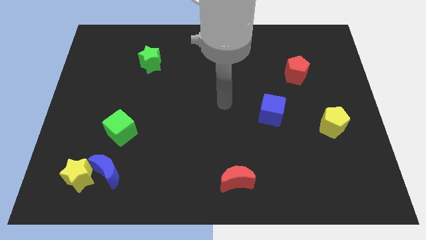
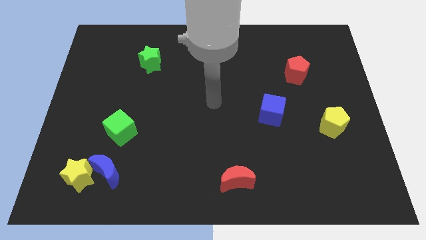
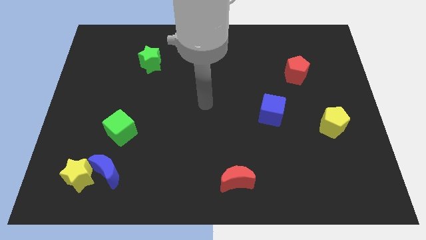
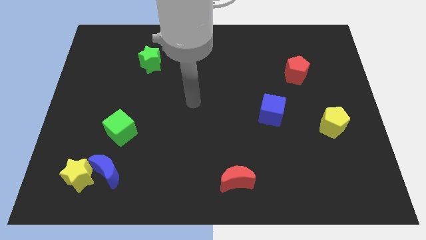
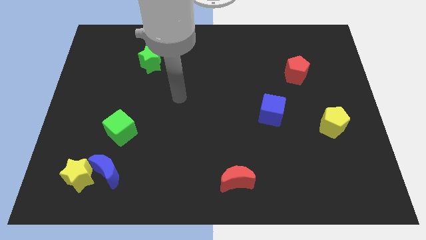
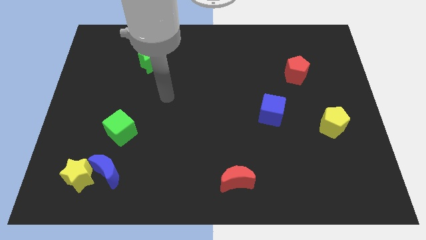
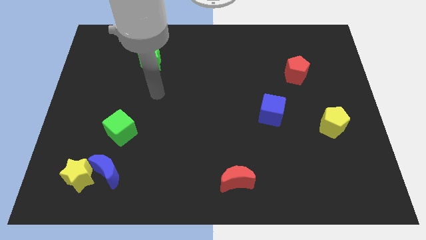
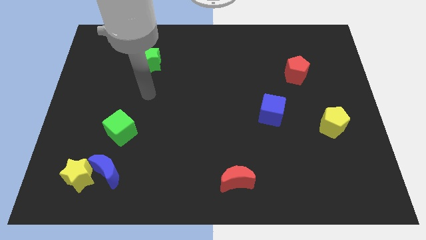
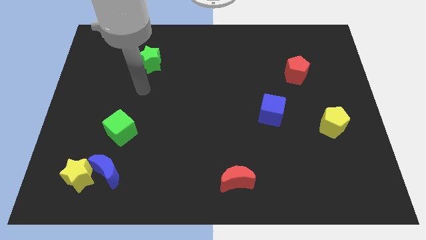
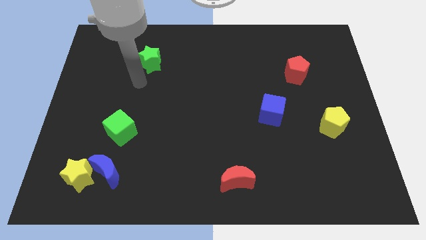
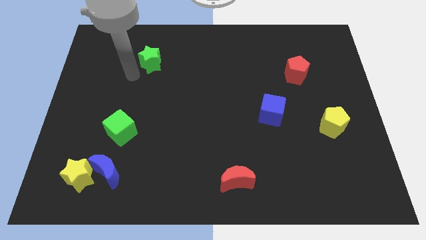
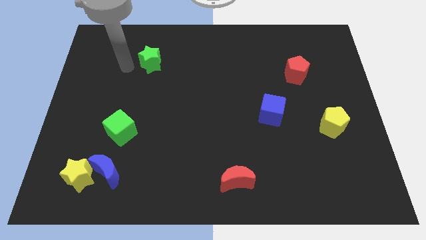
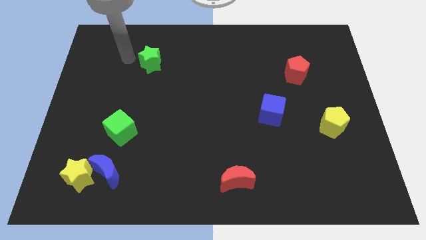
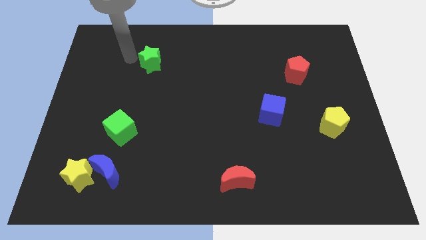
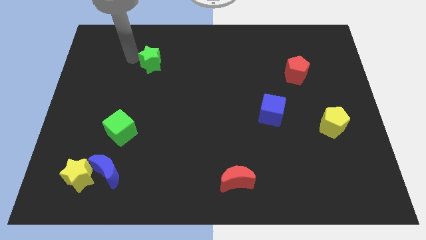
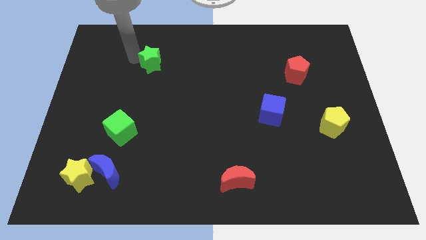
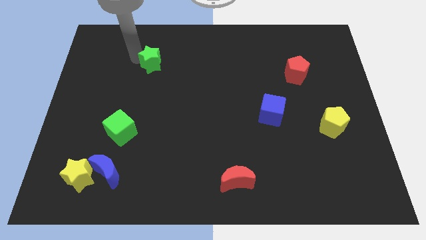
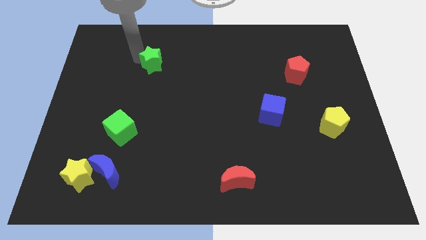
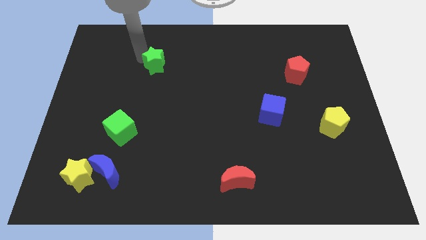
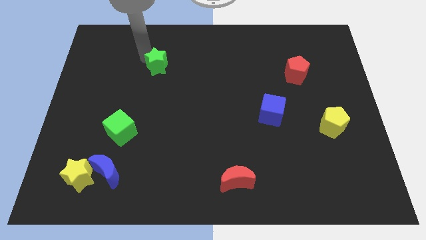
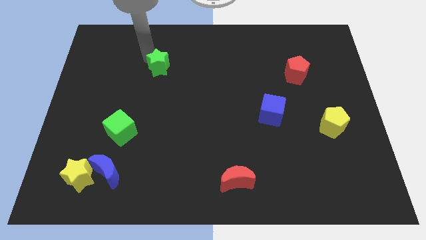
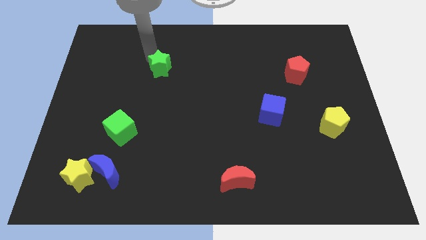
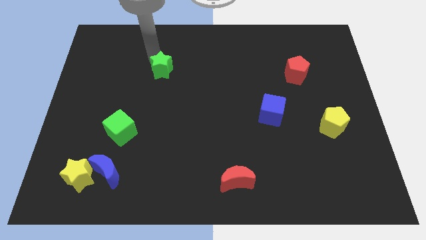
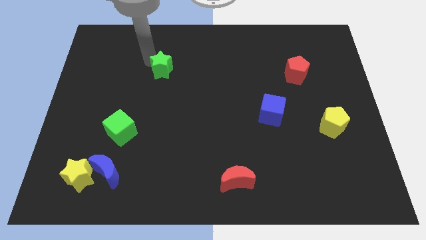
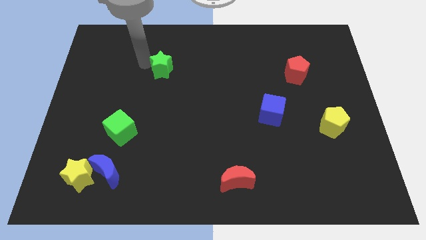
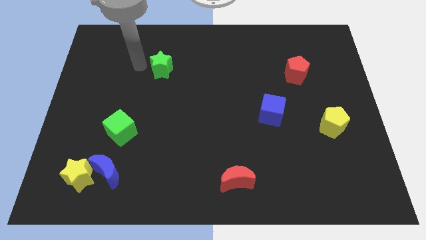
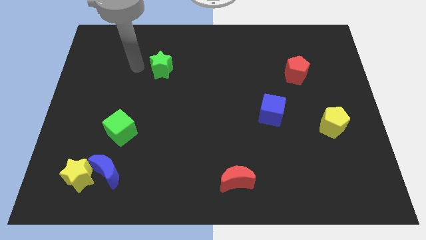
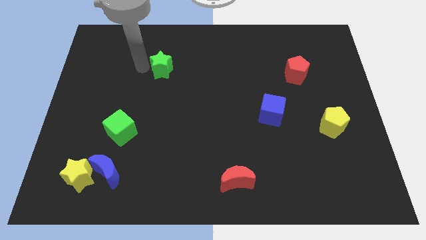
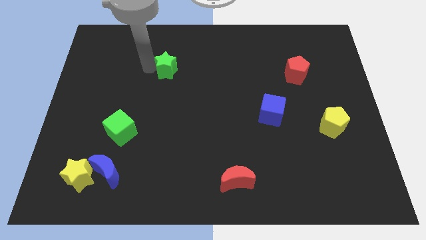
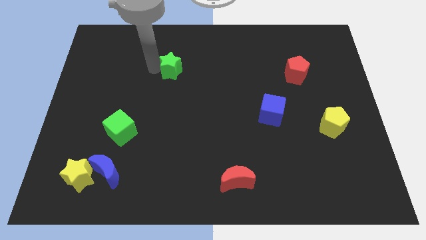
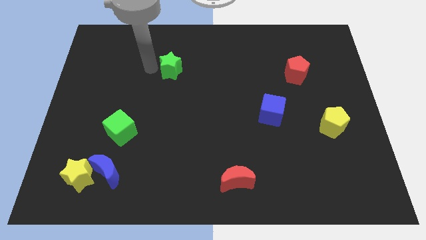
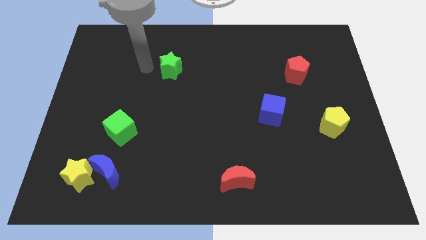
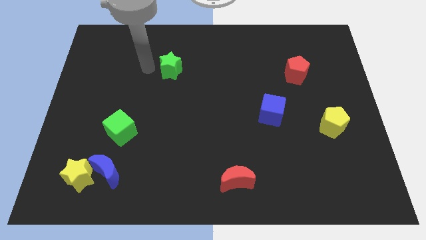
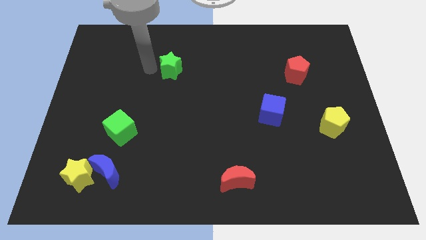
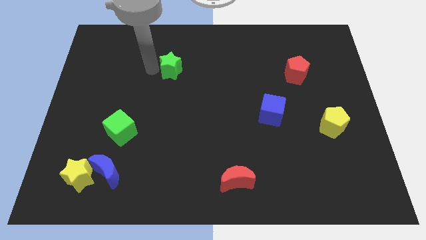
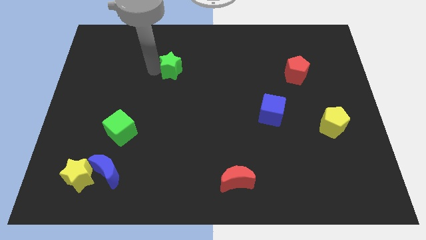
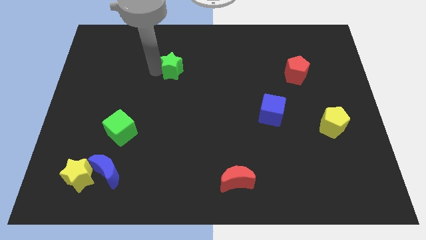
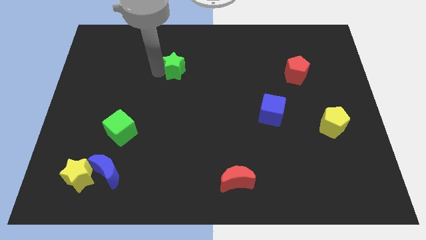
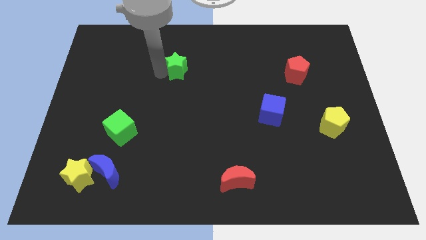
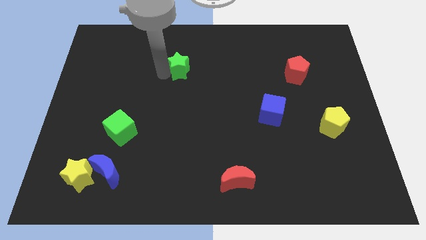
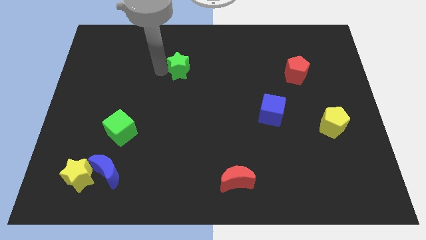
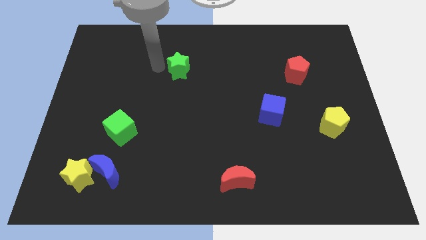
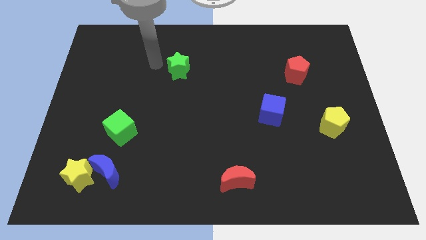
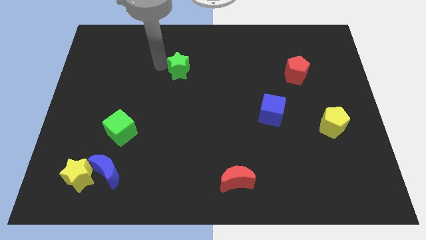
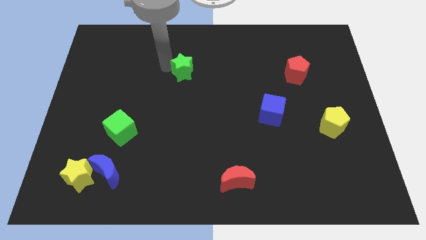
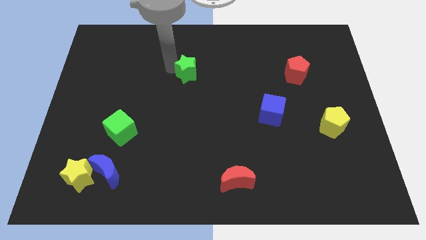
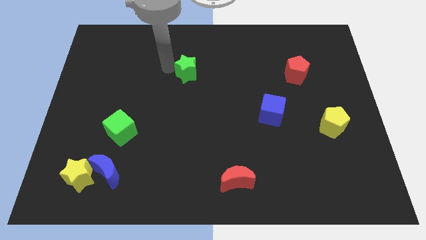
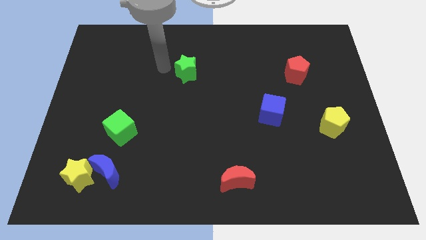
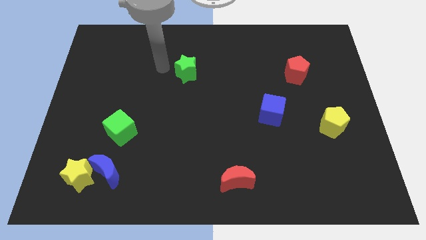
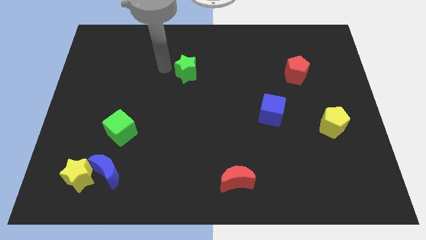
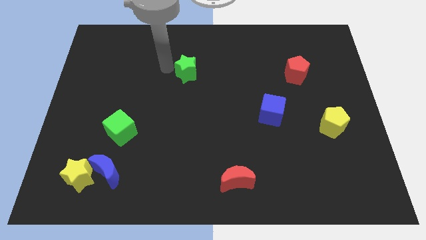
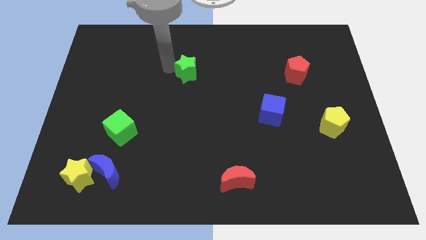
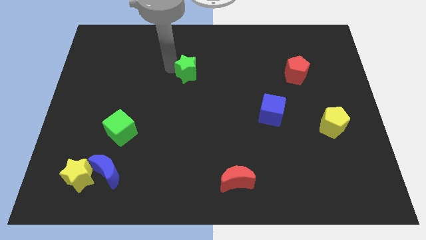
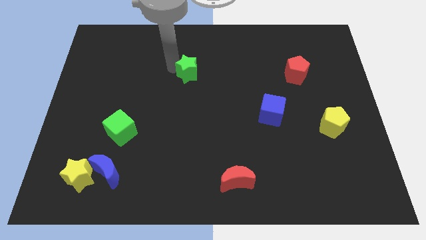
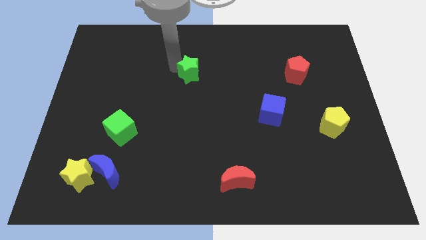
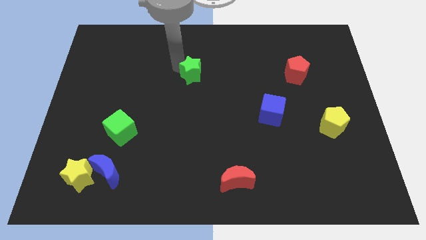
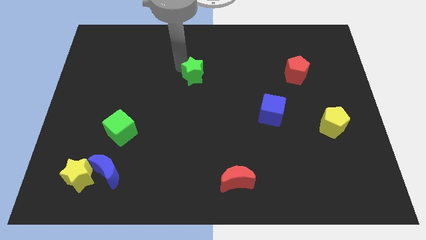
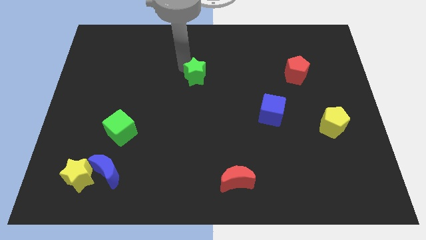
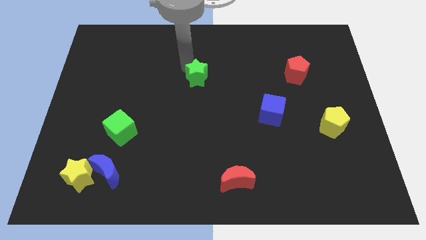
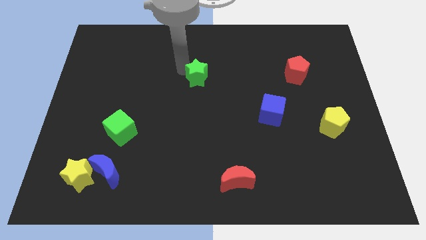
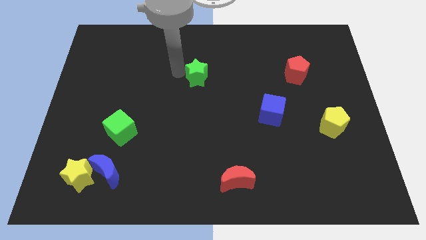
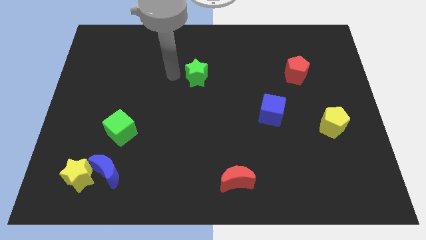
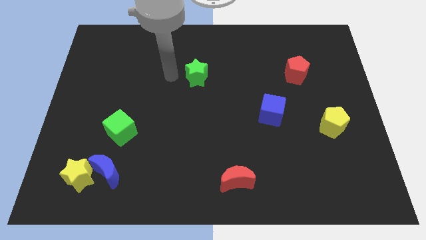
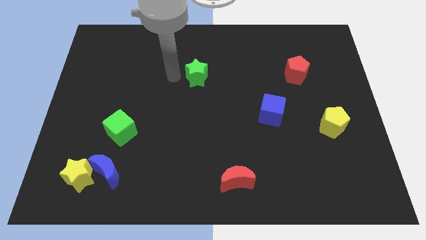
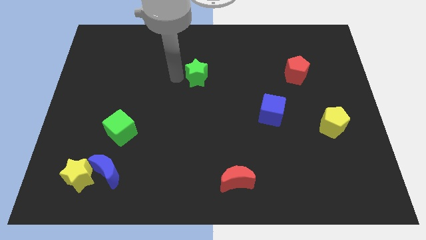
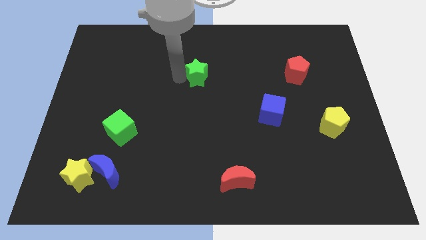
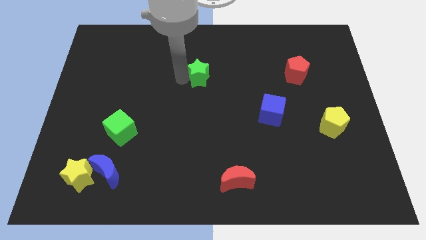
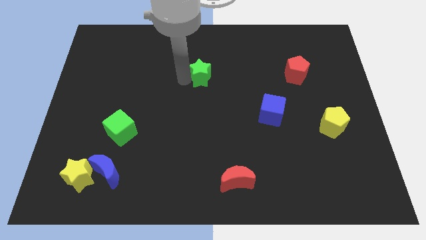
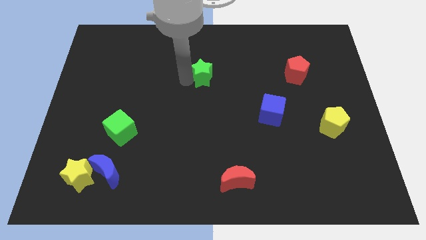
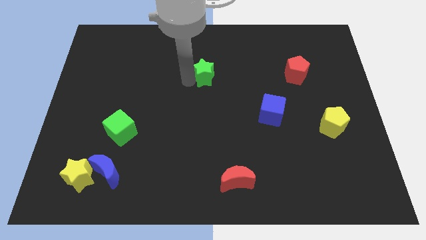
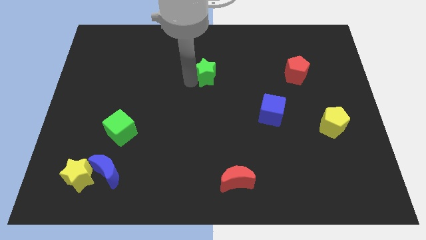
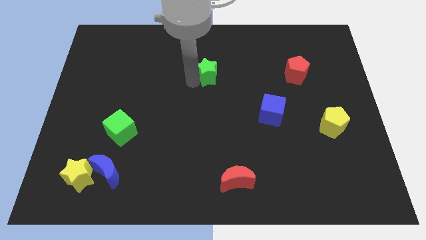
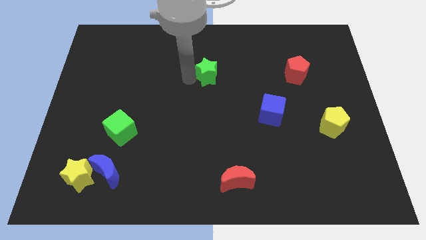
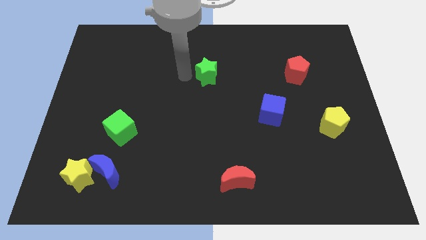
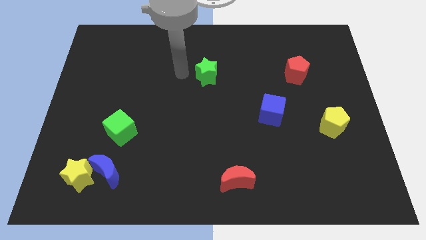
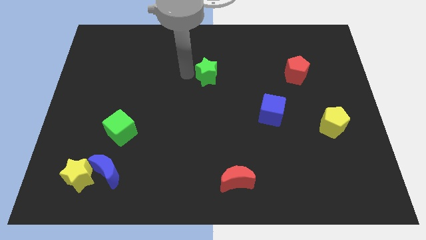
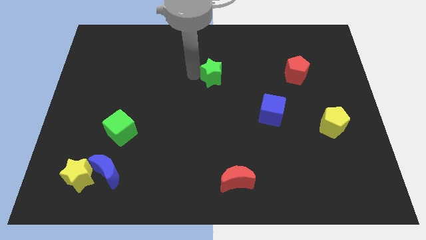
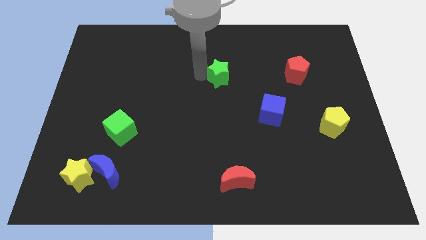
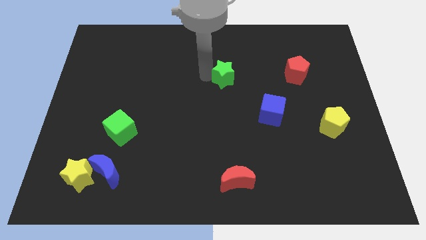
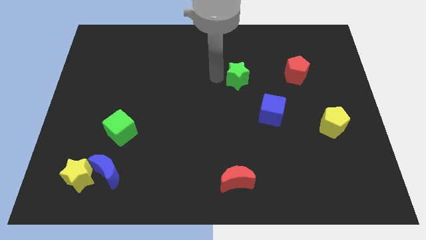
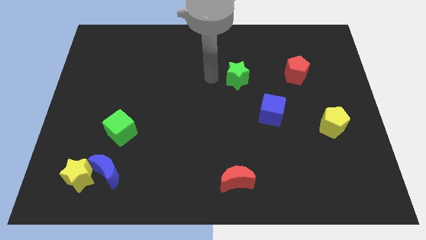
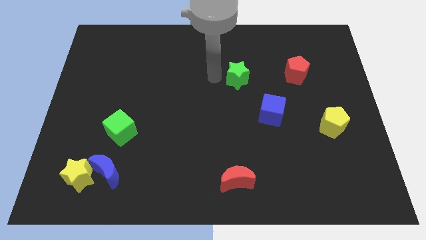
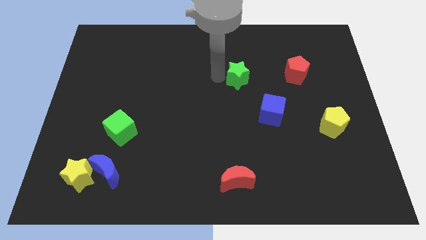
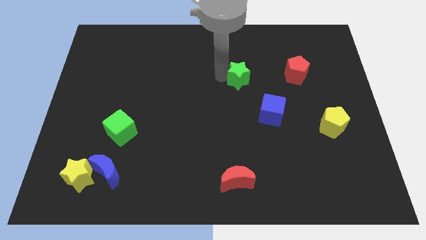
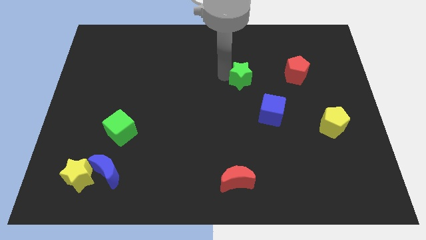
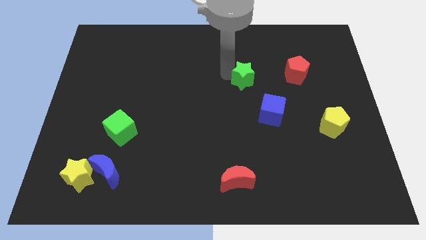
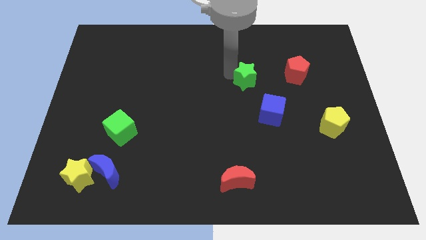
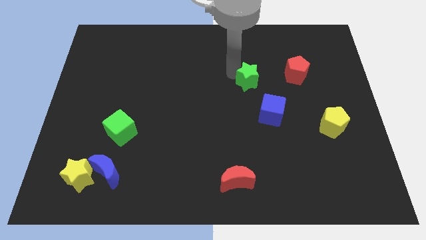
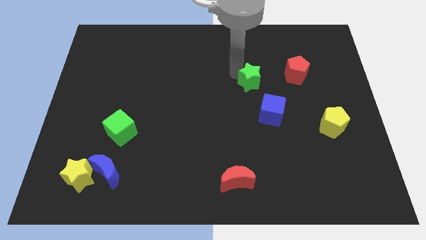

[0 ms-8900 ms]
put the green star to the top of the blue cube
